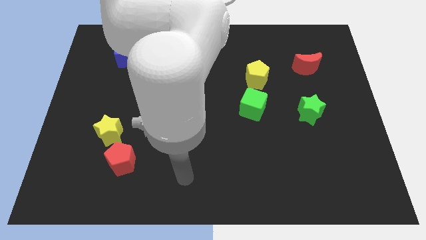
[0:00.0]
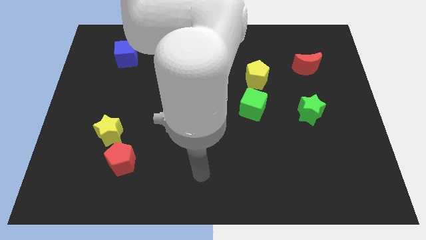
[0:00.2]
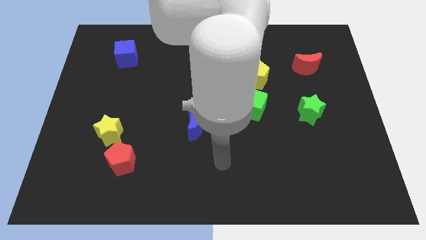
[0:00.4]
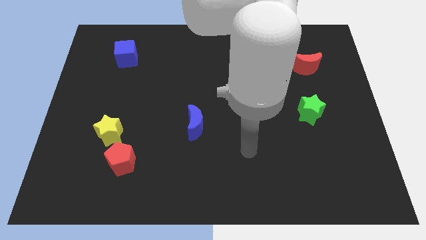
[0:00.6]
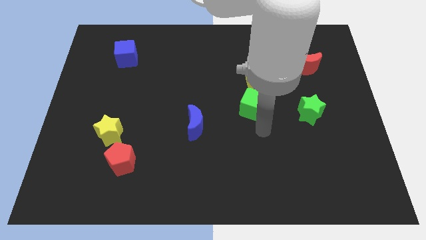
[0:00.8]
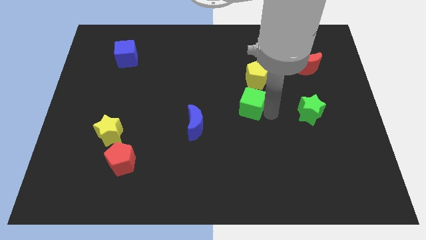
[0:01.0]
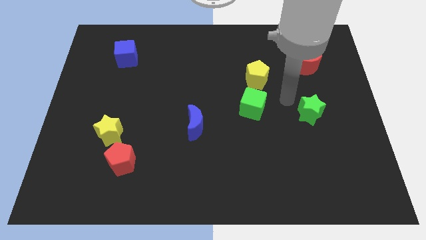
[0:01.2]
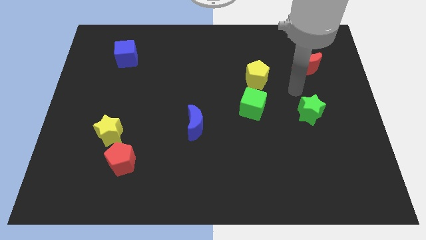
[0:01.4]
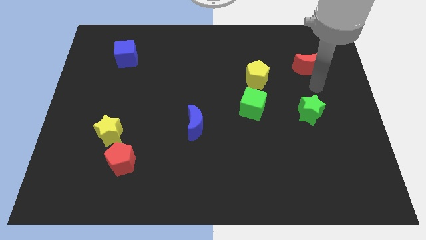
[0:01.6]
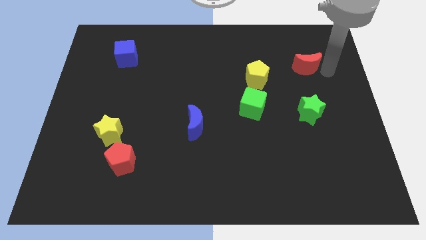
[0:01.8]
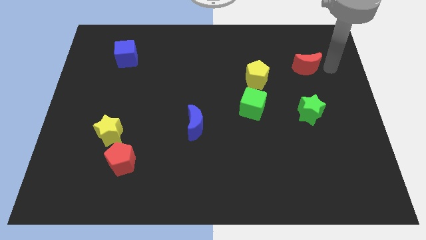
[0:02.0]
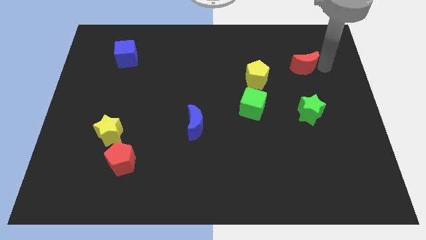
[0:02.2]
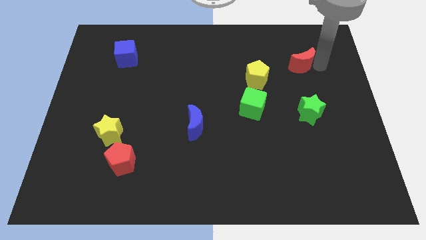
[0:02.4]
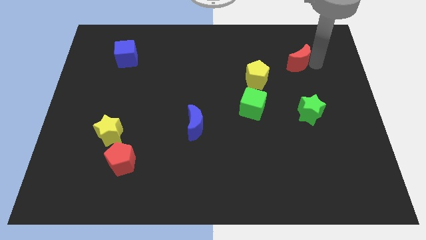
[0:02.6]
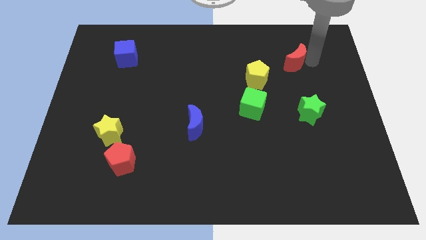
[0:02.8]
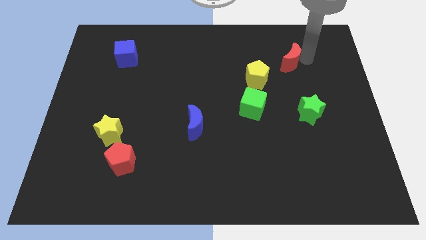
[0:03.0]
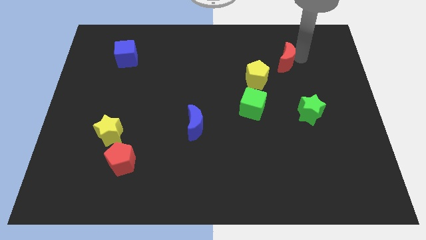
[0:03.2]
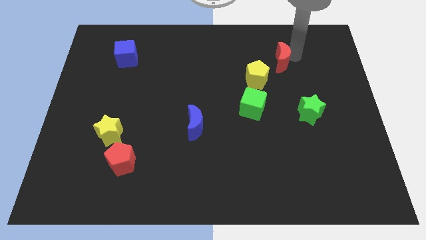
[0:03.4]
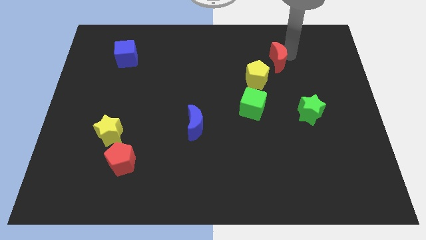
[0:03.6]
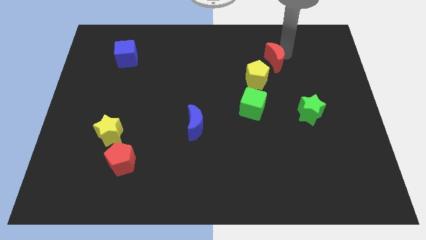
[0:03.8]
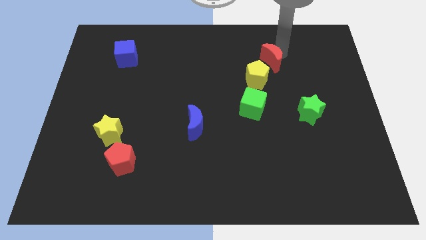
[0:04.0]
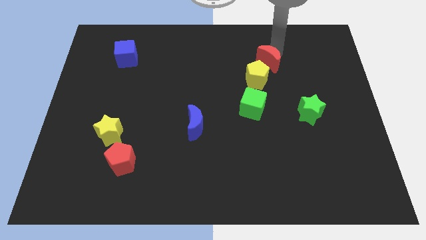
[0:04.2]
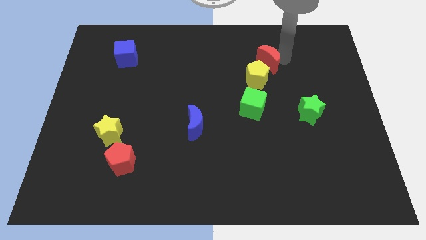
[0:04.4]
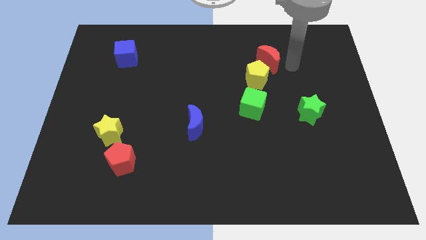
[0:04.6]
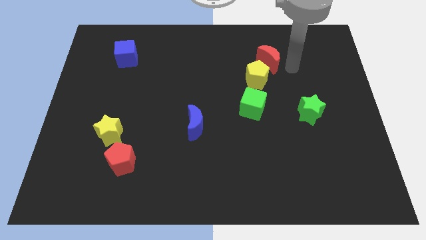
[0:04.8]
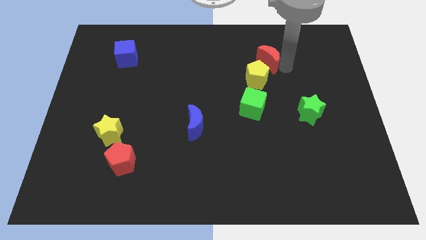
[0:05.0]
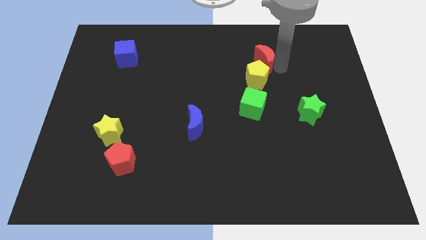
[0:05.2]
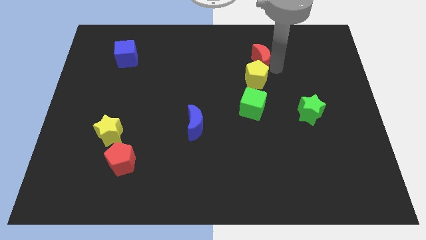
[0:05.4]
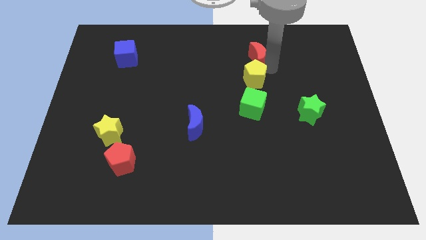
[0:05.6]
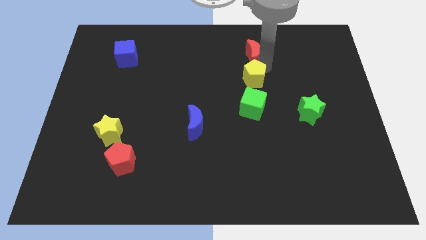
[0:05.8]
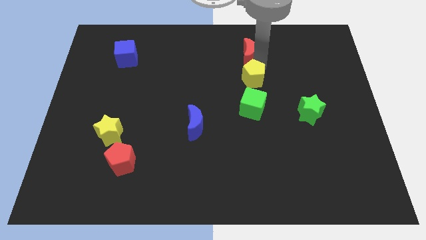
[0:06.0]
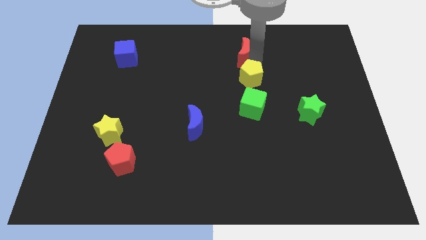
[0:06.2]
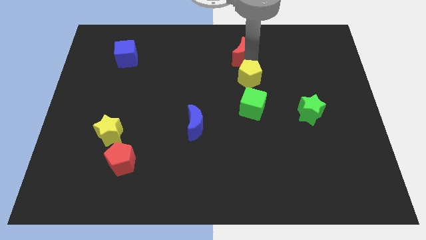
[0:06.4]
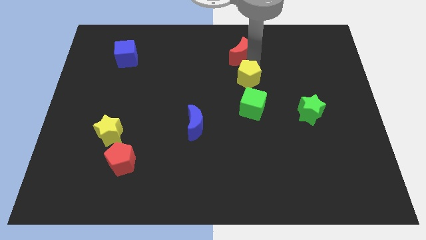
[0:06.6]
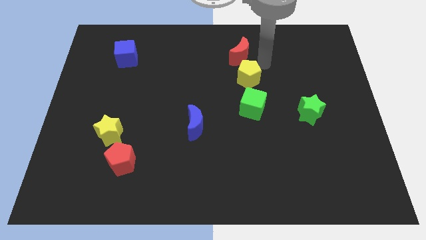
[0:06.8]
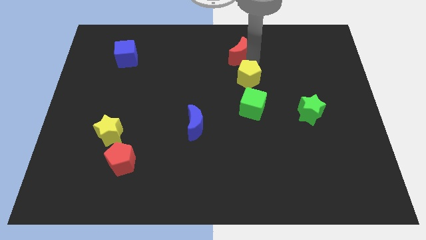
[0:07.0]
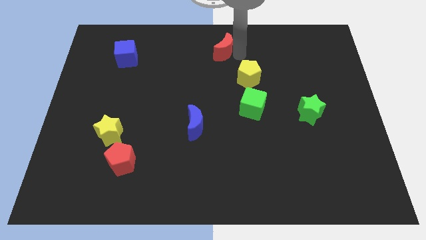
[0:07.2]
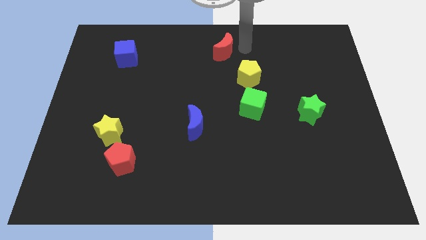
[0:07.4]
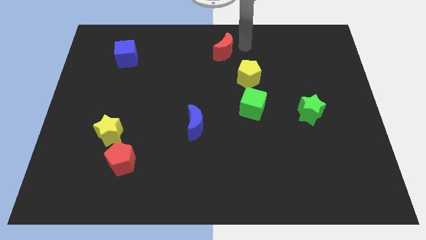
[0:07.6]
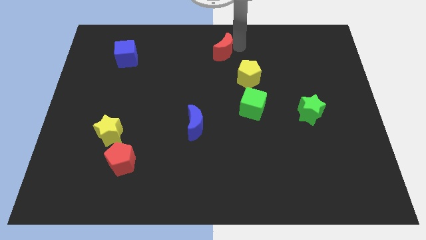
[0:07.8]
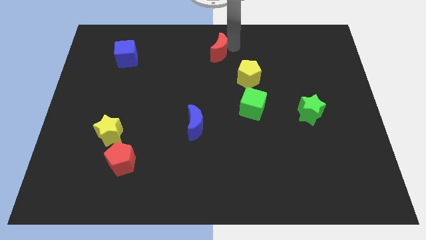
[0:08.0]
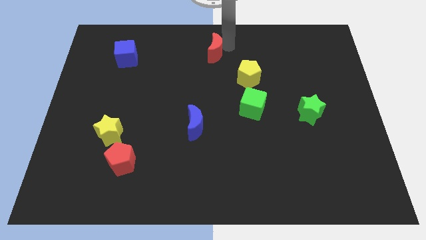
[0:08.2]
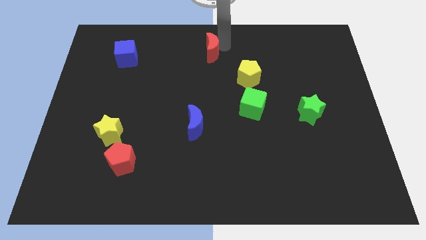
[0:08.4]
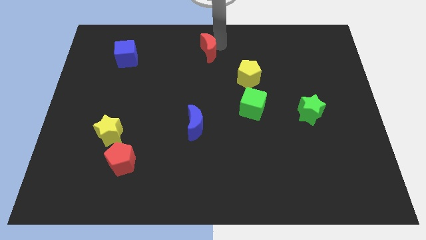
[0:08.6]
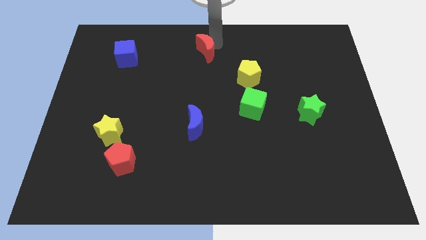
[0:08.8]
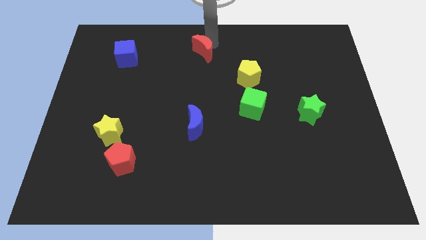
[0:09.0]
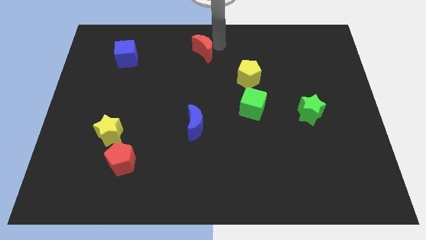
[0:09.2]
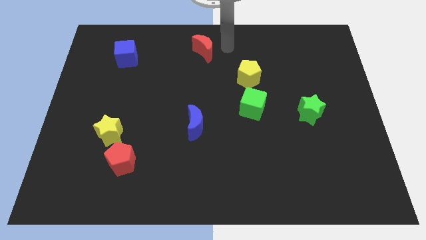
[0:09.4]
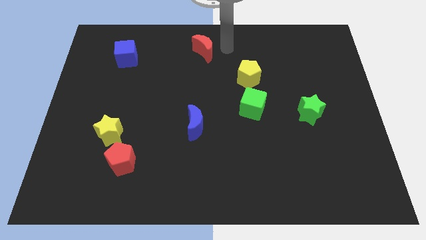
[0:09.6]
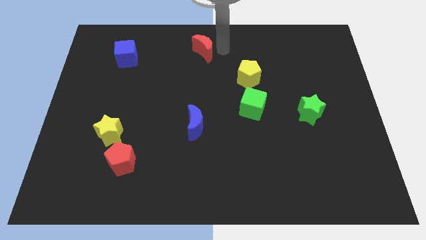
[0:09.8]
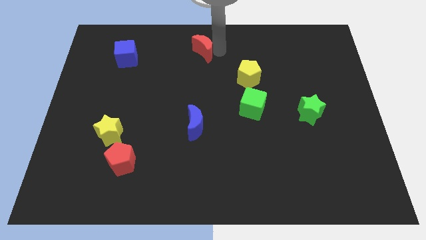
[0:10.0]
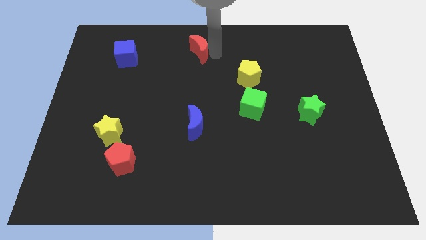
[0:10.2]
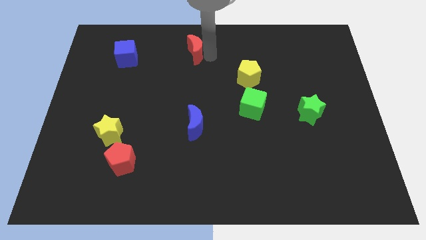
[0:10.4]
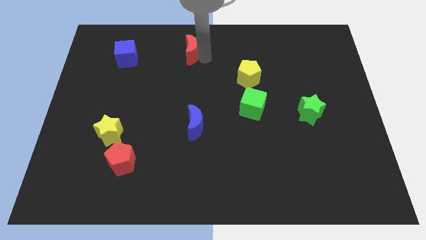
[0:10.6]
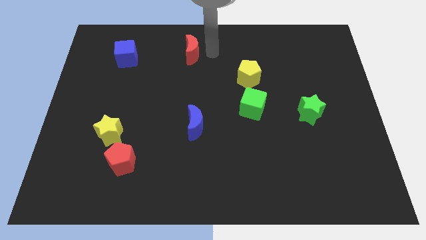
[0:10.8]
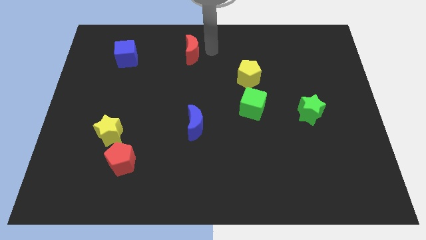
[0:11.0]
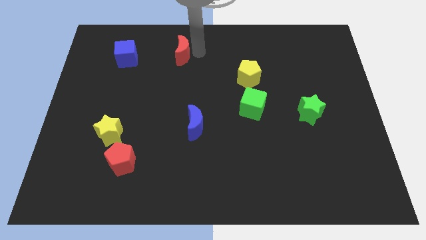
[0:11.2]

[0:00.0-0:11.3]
put the red moon right of the blue cube

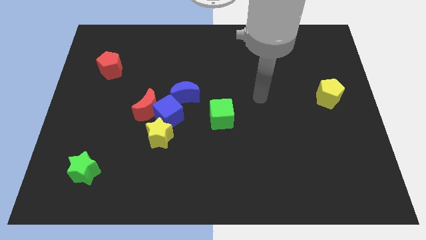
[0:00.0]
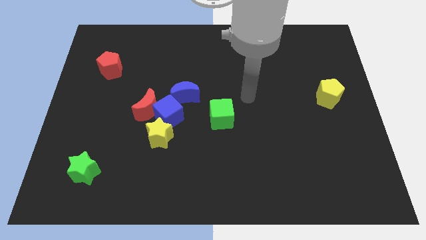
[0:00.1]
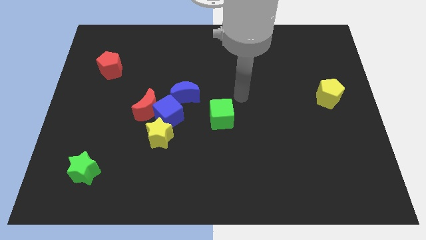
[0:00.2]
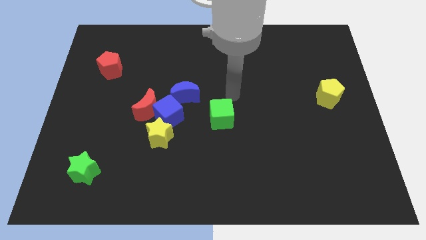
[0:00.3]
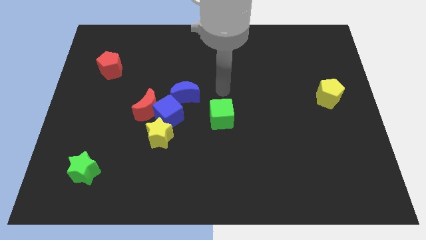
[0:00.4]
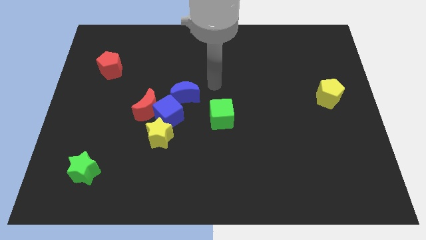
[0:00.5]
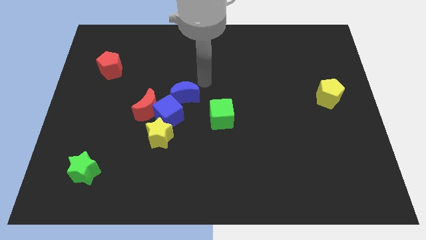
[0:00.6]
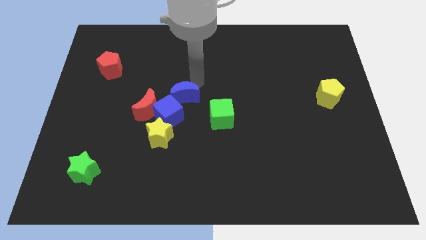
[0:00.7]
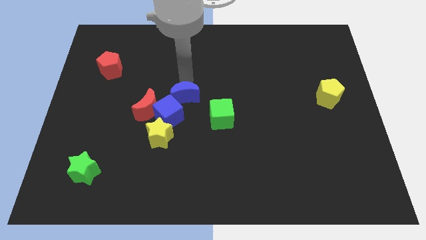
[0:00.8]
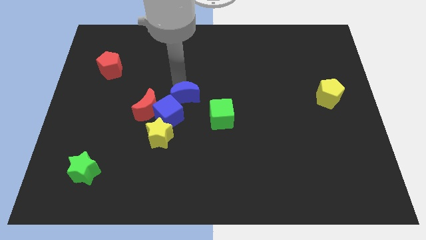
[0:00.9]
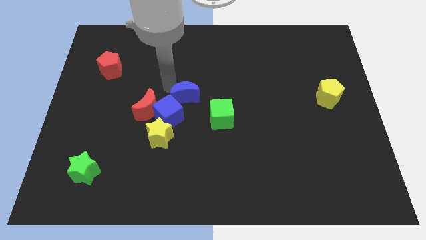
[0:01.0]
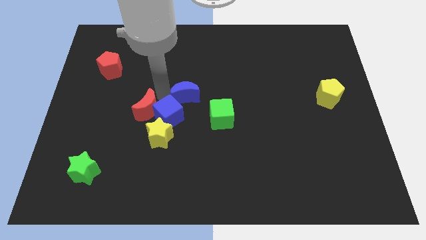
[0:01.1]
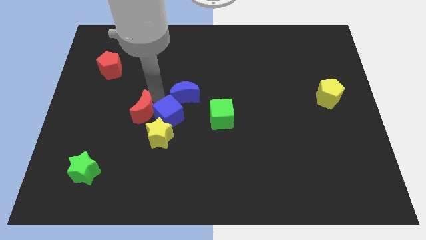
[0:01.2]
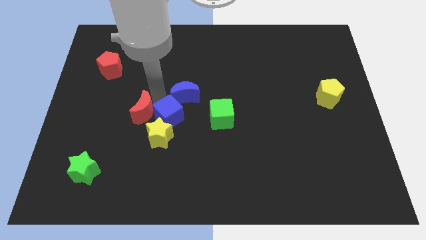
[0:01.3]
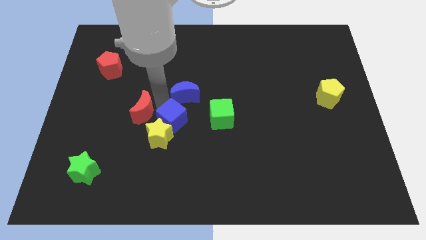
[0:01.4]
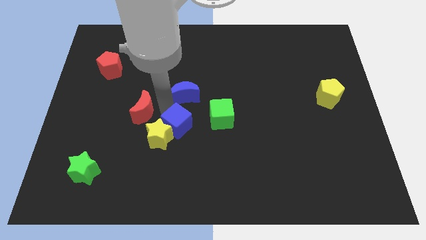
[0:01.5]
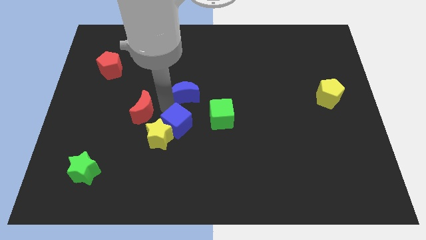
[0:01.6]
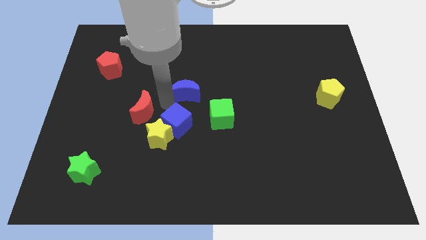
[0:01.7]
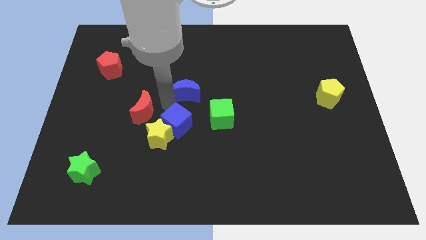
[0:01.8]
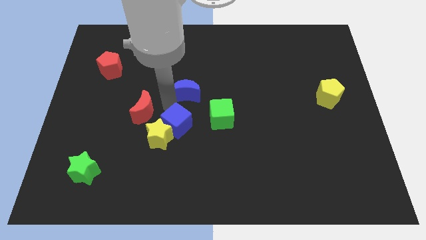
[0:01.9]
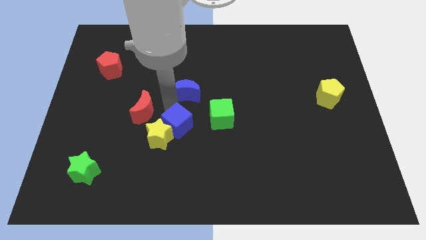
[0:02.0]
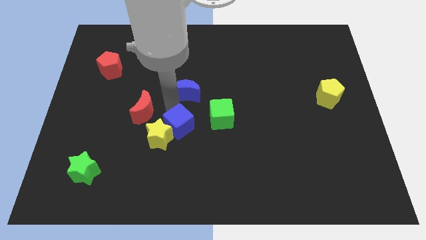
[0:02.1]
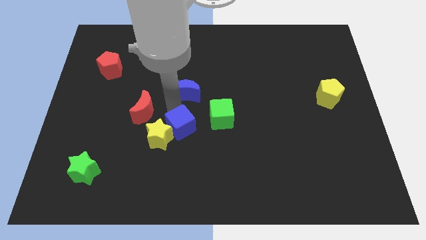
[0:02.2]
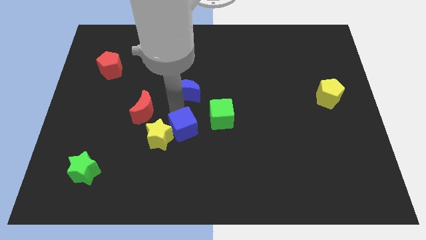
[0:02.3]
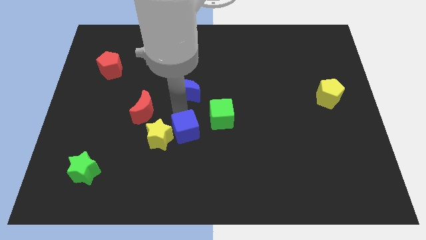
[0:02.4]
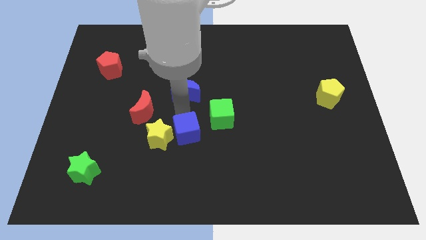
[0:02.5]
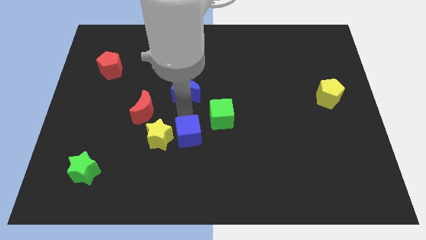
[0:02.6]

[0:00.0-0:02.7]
push the blue cube to the bottom right of the yellow star
